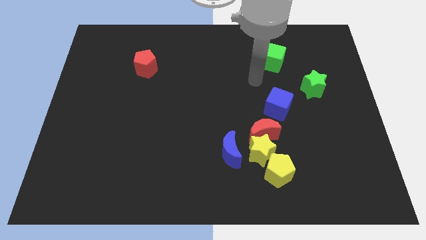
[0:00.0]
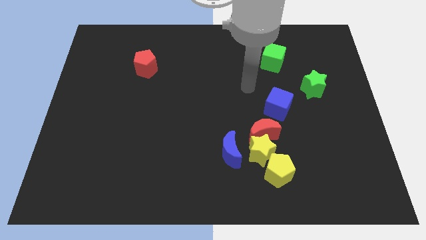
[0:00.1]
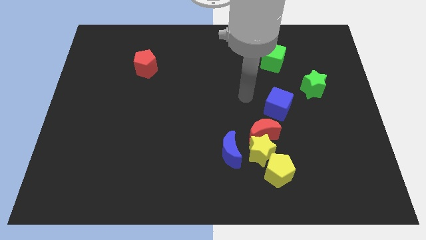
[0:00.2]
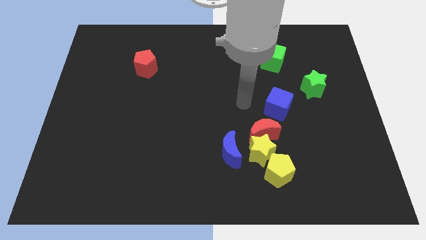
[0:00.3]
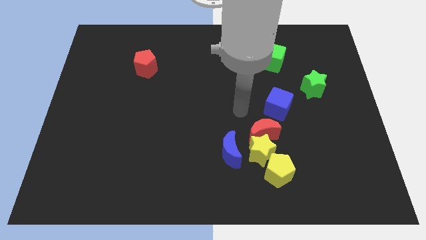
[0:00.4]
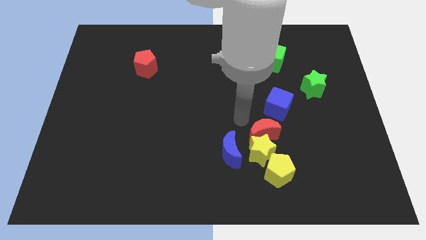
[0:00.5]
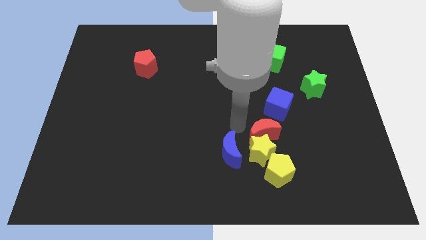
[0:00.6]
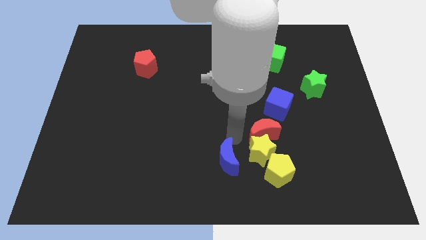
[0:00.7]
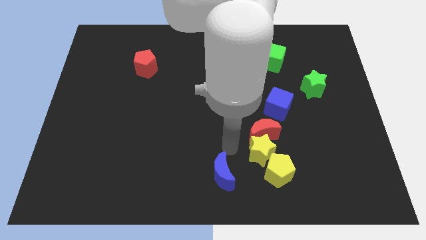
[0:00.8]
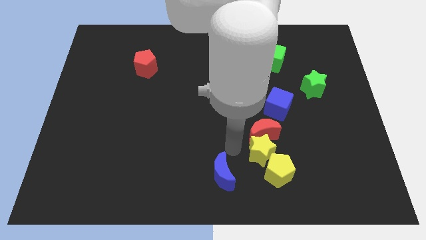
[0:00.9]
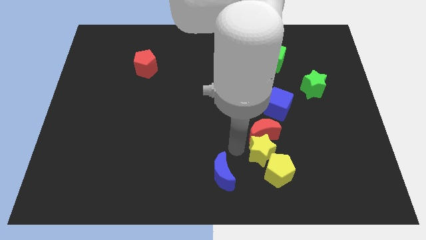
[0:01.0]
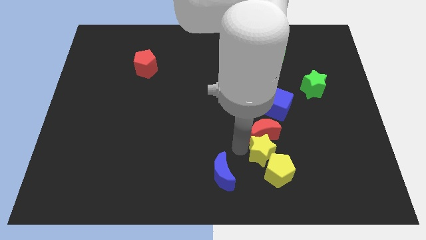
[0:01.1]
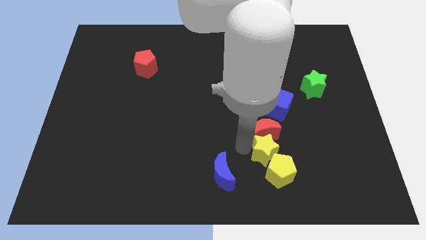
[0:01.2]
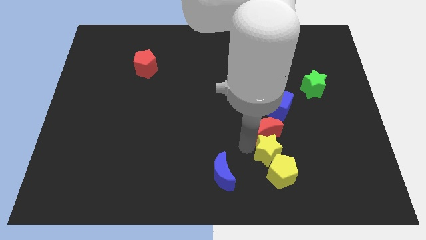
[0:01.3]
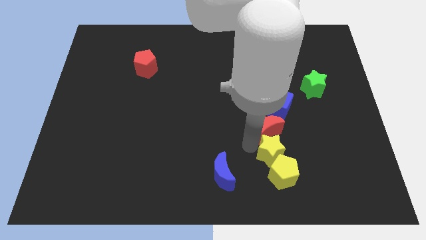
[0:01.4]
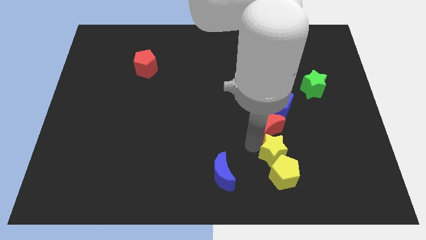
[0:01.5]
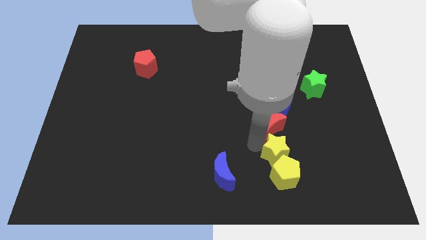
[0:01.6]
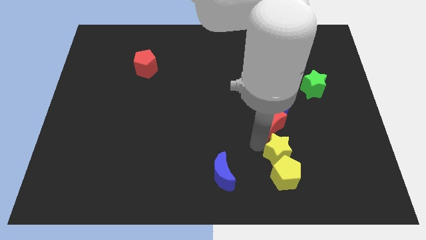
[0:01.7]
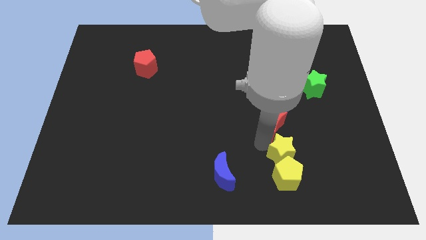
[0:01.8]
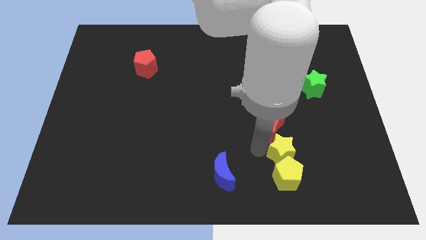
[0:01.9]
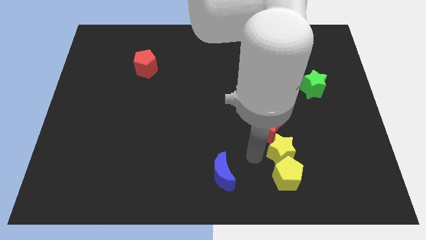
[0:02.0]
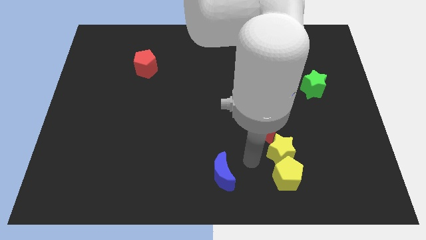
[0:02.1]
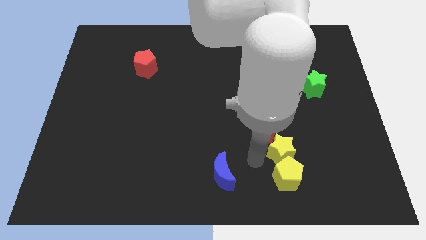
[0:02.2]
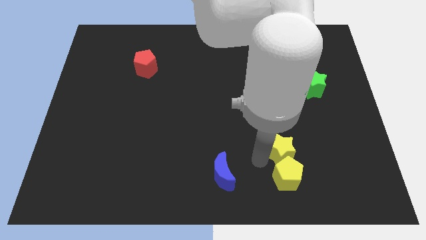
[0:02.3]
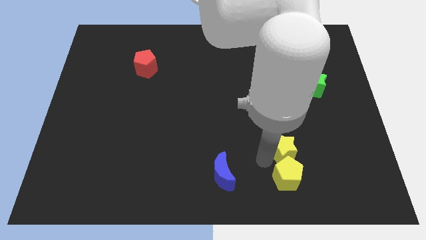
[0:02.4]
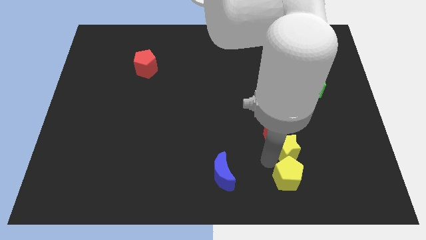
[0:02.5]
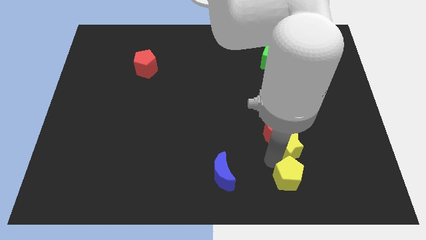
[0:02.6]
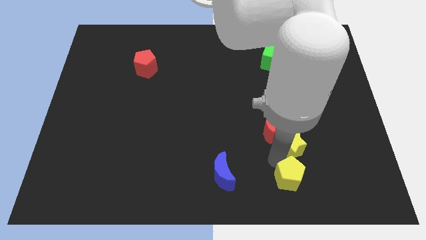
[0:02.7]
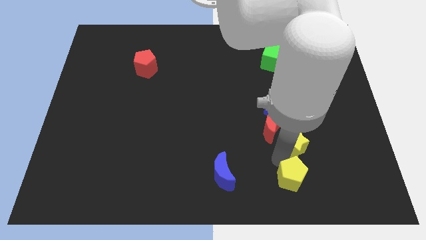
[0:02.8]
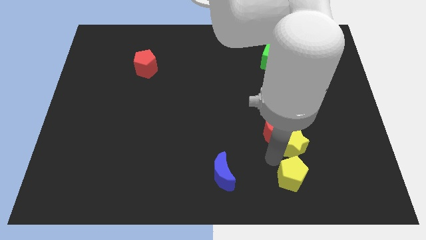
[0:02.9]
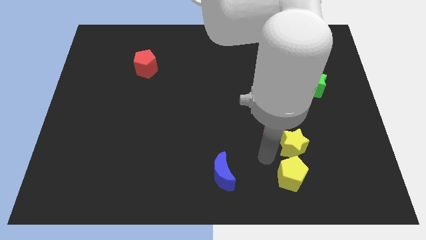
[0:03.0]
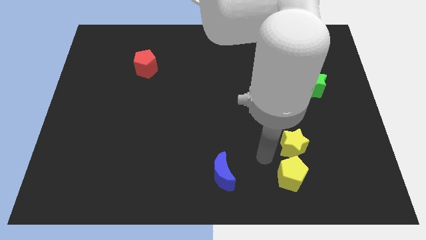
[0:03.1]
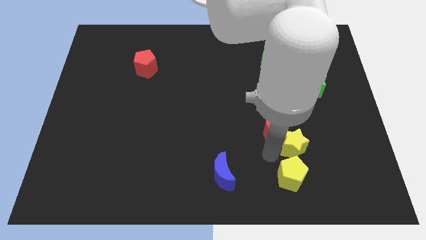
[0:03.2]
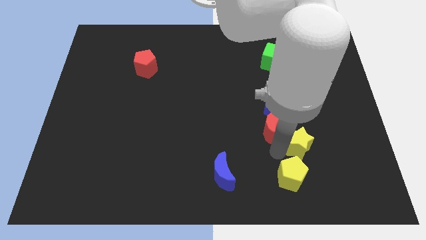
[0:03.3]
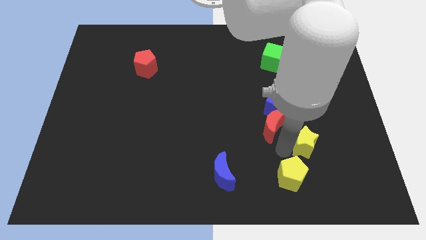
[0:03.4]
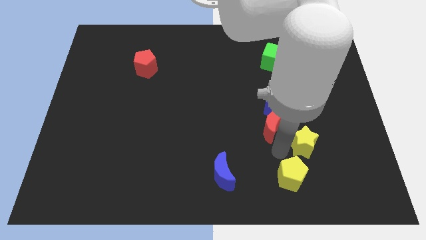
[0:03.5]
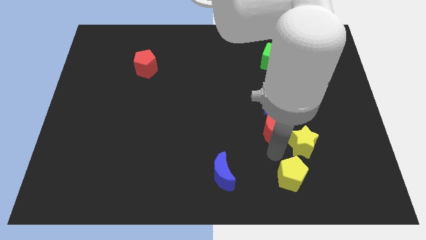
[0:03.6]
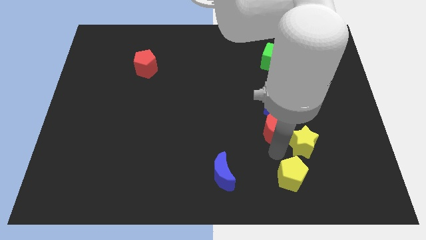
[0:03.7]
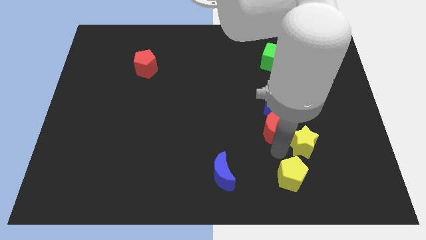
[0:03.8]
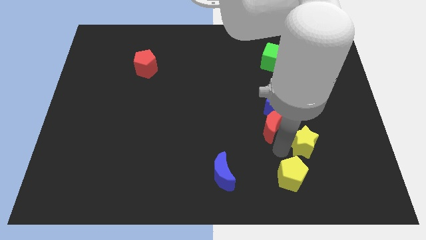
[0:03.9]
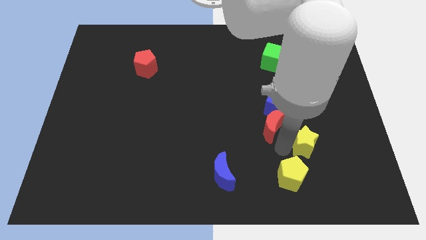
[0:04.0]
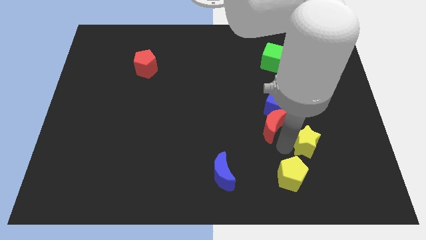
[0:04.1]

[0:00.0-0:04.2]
pull the yellow star apart from the red moon, yellow pentagon, and blue moon

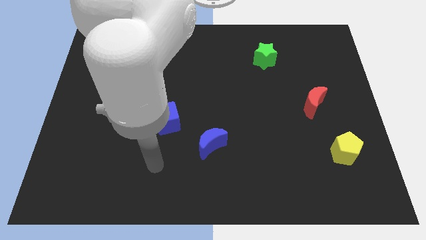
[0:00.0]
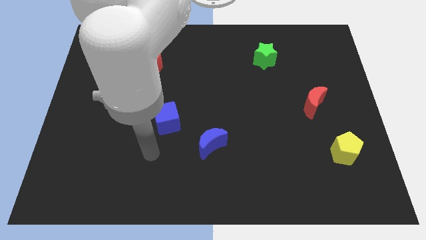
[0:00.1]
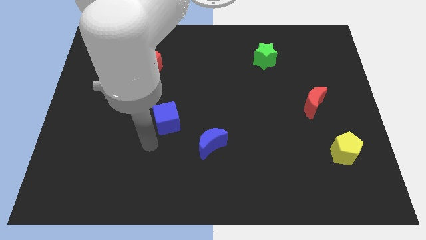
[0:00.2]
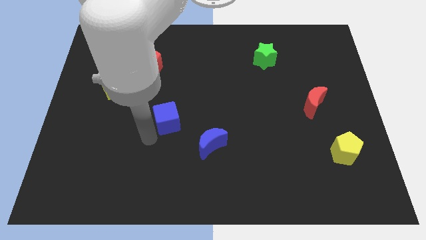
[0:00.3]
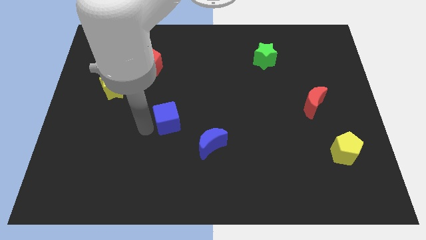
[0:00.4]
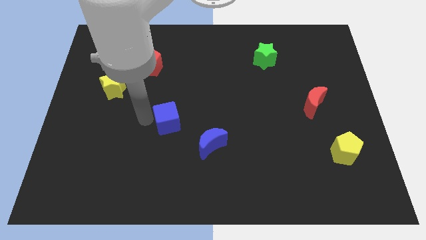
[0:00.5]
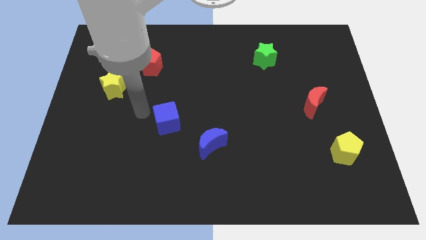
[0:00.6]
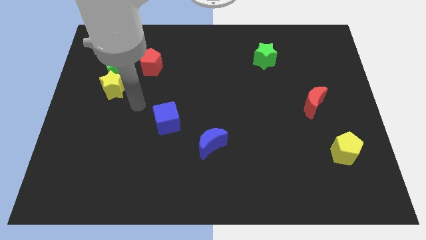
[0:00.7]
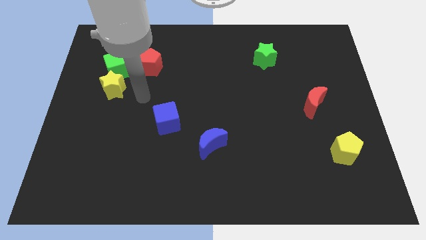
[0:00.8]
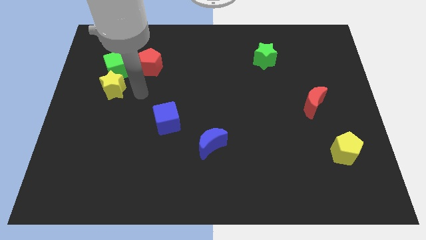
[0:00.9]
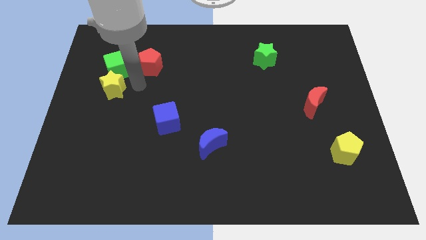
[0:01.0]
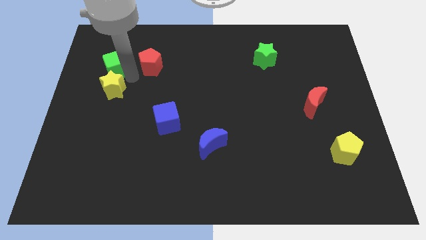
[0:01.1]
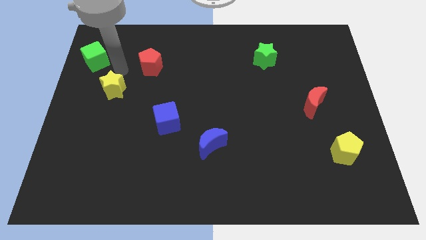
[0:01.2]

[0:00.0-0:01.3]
separate the yellow star from the green cube

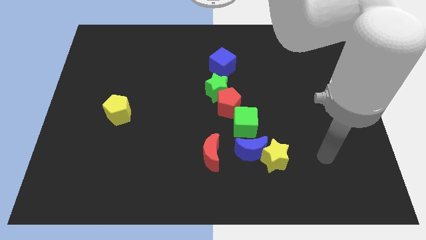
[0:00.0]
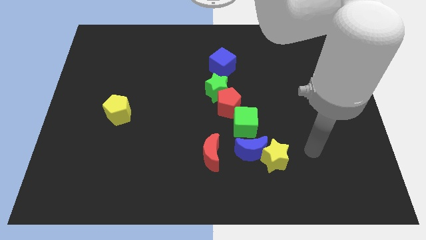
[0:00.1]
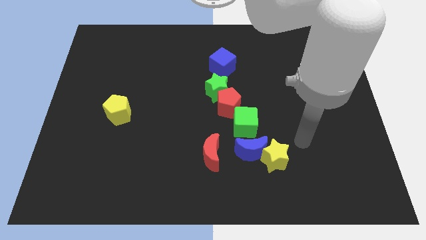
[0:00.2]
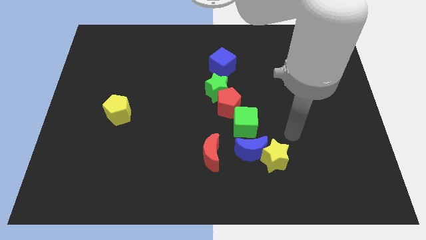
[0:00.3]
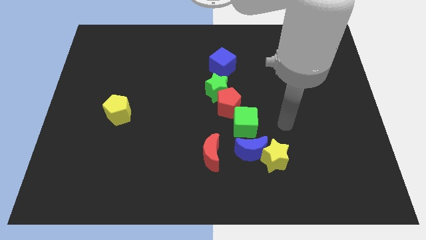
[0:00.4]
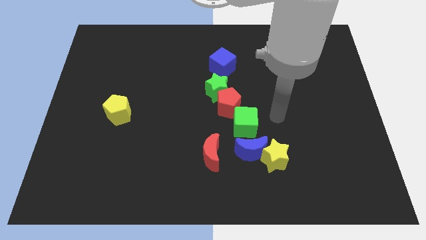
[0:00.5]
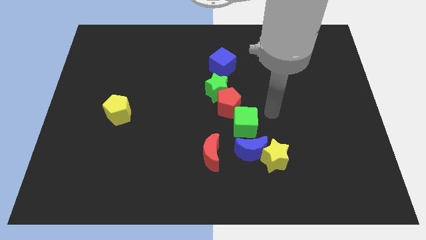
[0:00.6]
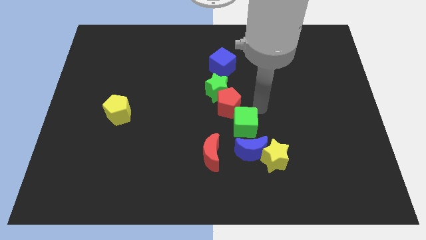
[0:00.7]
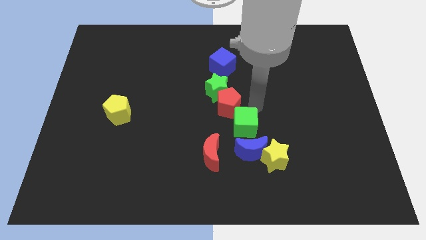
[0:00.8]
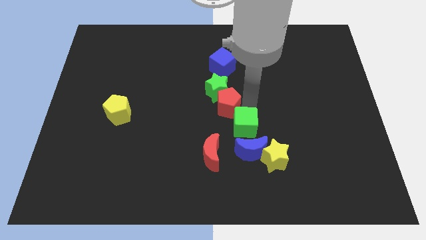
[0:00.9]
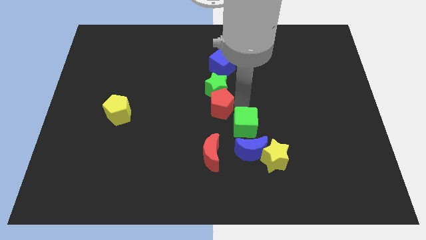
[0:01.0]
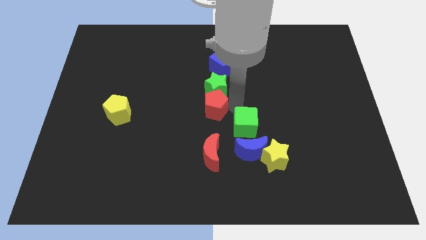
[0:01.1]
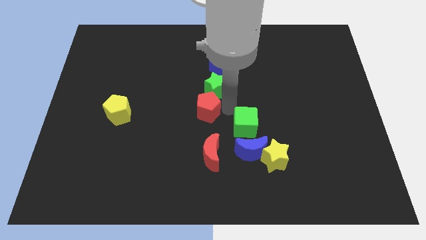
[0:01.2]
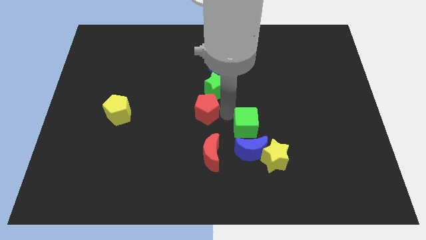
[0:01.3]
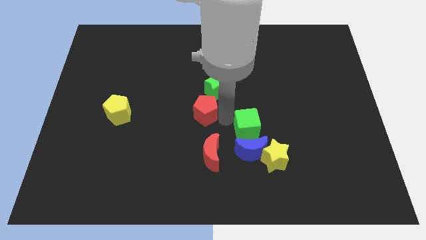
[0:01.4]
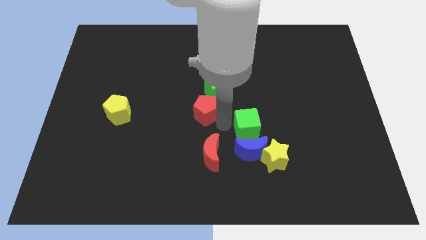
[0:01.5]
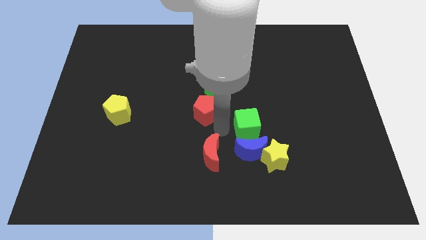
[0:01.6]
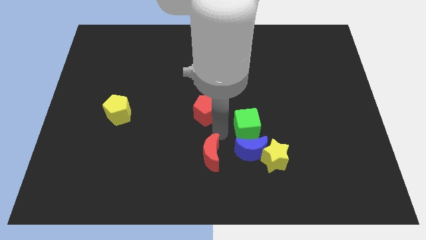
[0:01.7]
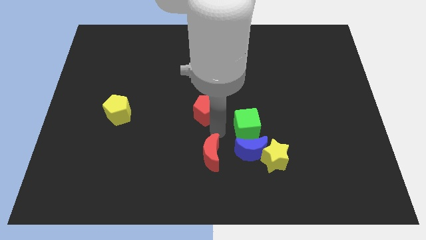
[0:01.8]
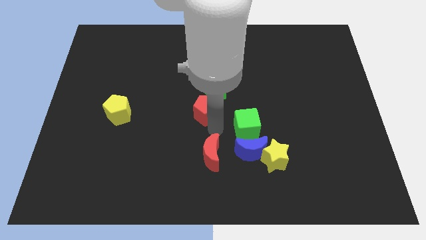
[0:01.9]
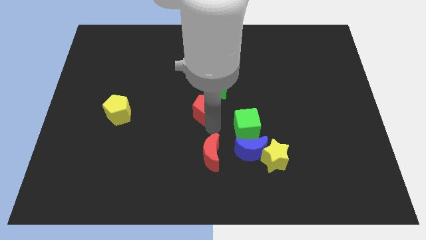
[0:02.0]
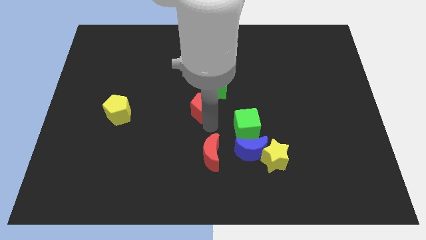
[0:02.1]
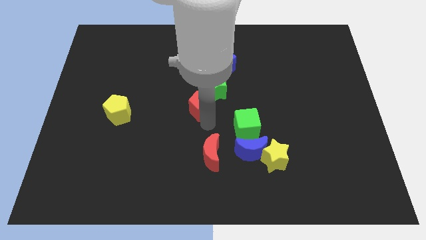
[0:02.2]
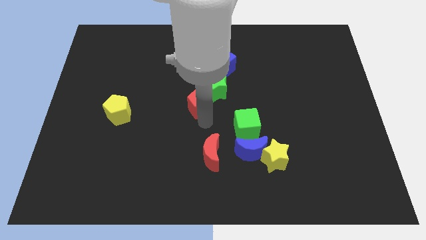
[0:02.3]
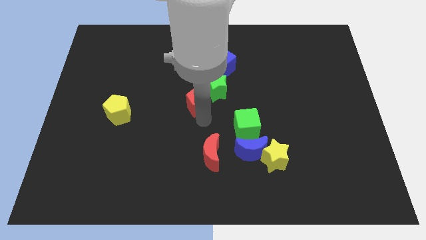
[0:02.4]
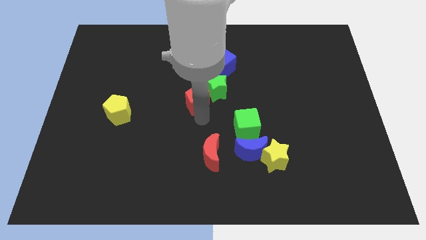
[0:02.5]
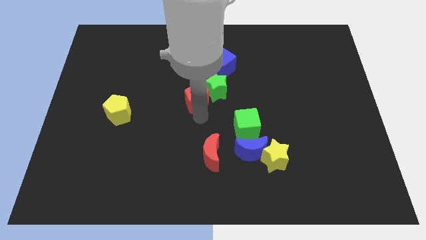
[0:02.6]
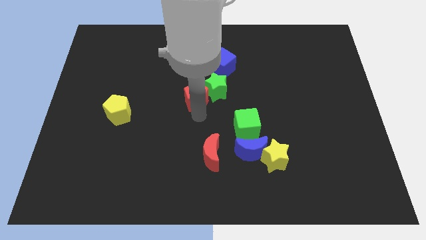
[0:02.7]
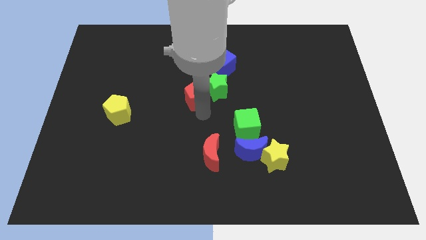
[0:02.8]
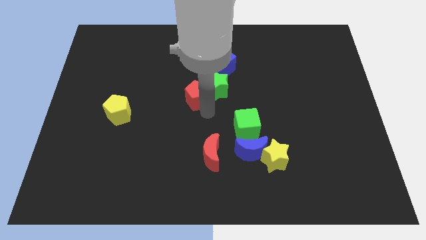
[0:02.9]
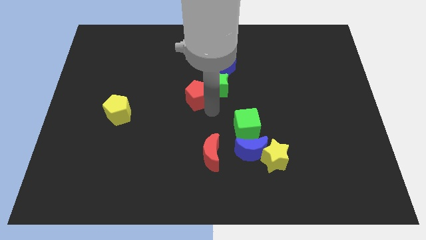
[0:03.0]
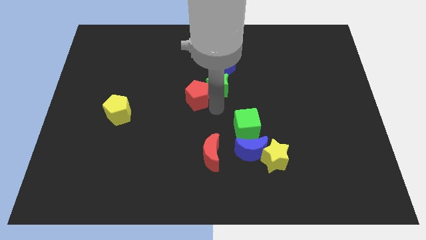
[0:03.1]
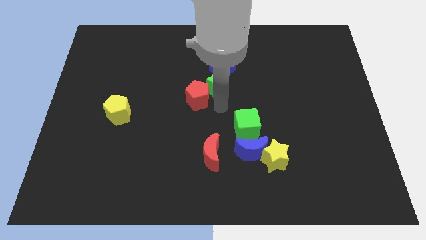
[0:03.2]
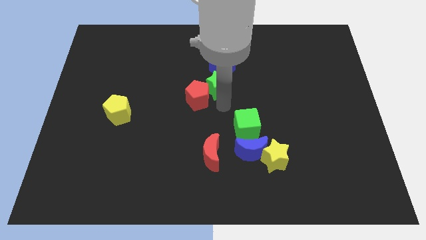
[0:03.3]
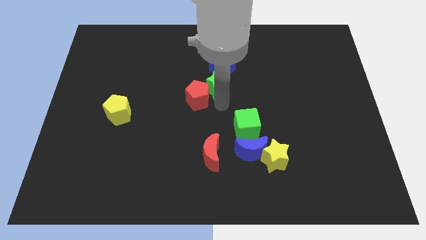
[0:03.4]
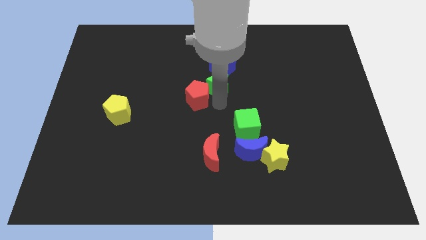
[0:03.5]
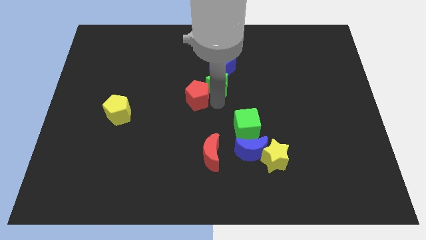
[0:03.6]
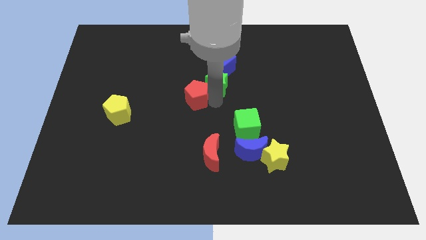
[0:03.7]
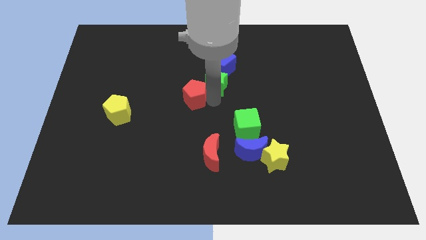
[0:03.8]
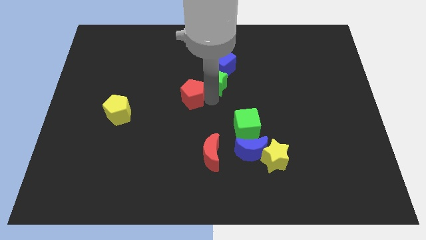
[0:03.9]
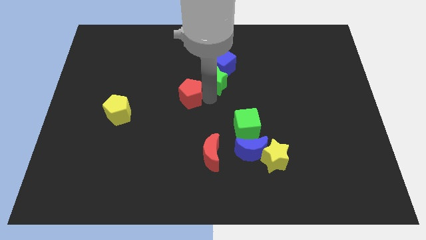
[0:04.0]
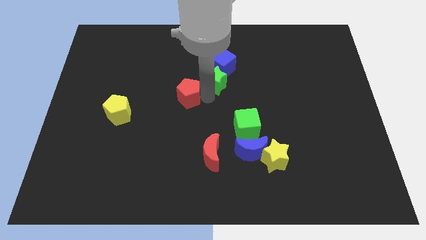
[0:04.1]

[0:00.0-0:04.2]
separate the red pentagon from the green star and green cube
